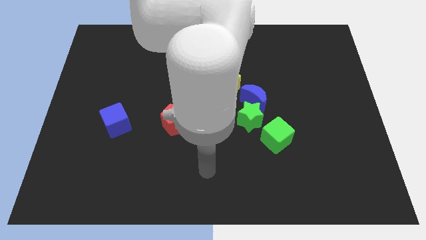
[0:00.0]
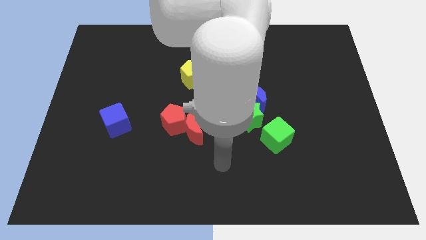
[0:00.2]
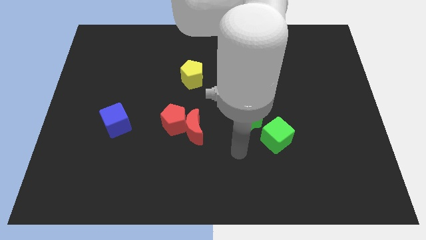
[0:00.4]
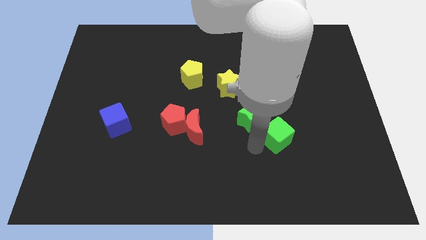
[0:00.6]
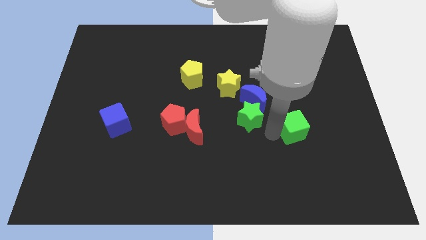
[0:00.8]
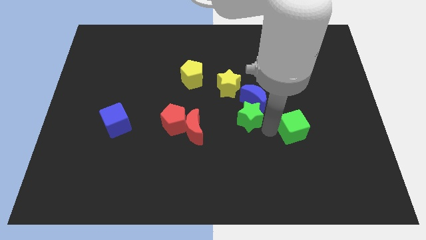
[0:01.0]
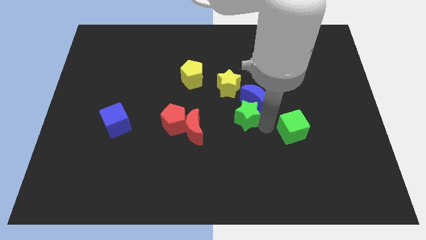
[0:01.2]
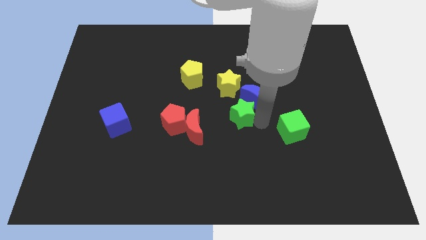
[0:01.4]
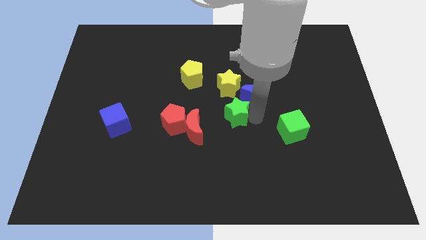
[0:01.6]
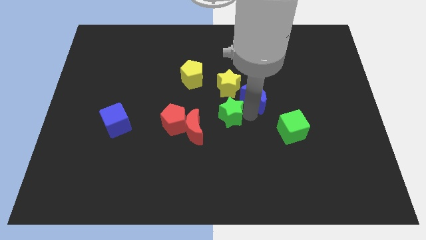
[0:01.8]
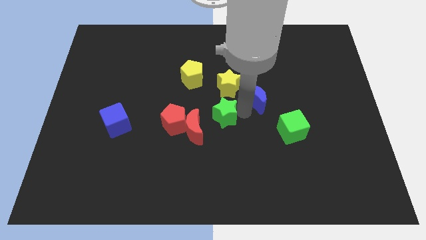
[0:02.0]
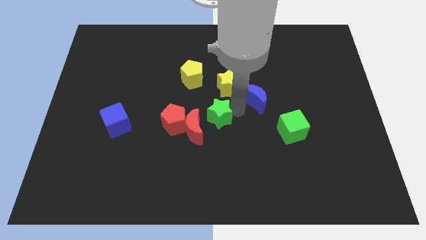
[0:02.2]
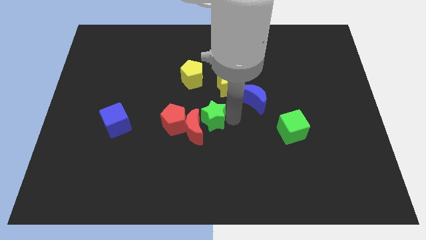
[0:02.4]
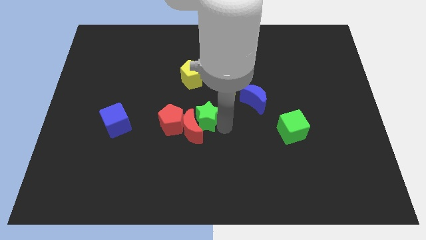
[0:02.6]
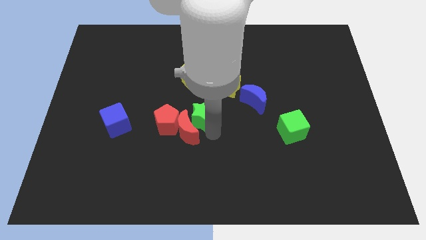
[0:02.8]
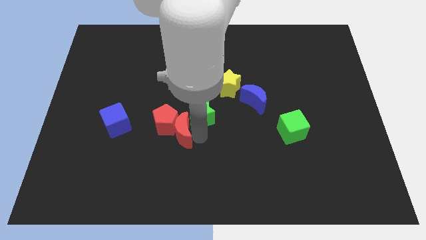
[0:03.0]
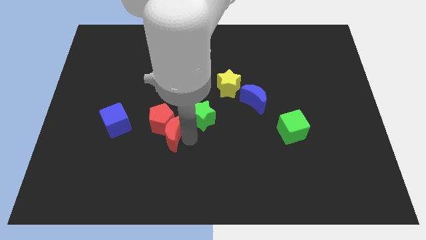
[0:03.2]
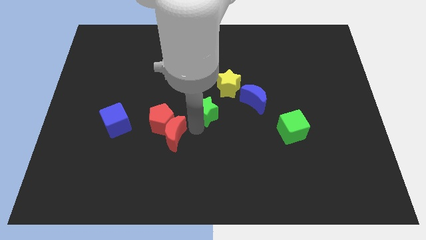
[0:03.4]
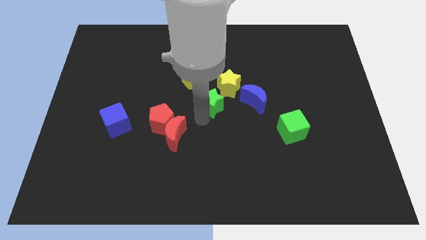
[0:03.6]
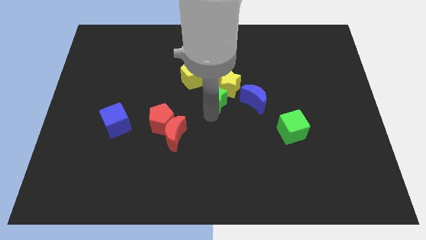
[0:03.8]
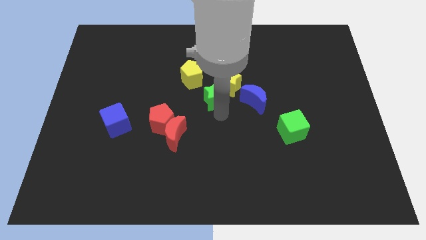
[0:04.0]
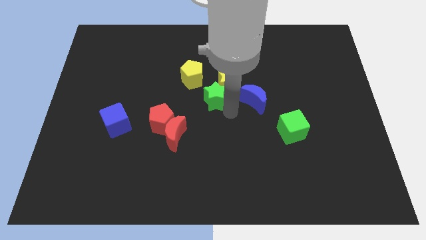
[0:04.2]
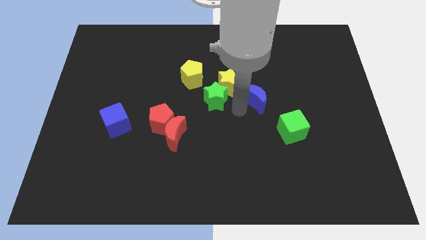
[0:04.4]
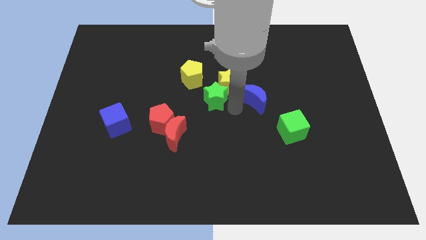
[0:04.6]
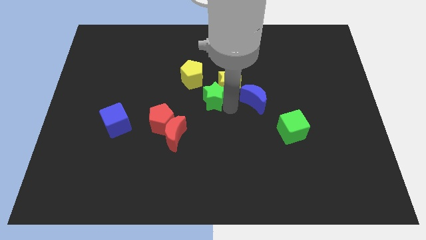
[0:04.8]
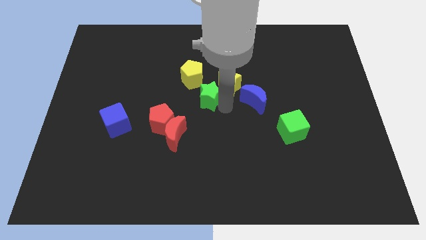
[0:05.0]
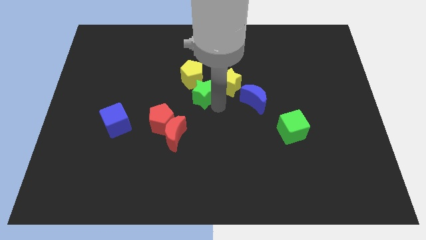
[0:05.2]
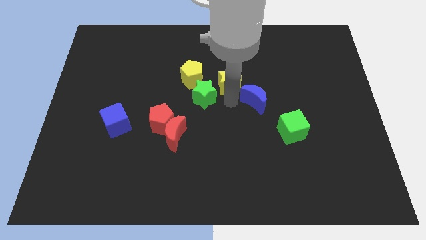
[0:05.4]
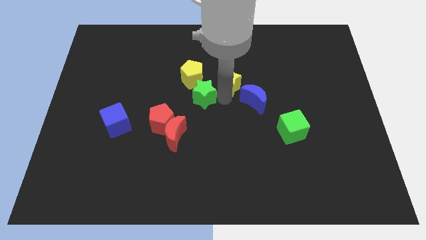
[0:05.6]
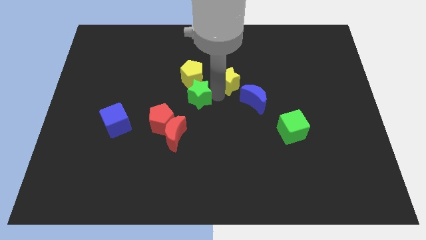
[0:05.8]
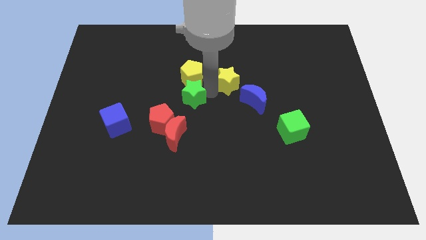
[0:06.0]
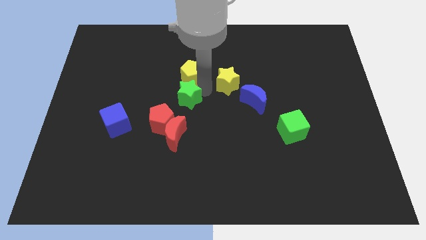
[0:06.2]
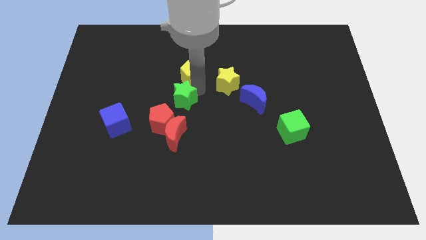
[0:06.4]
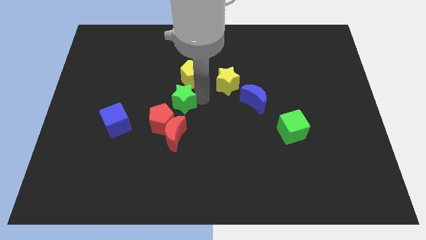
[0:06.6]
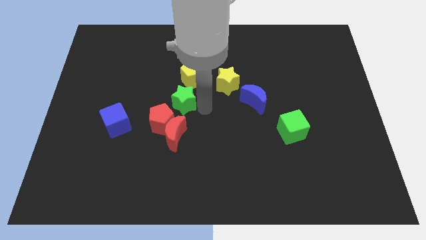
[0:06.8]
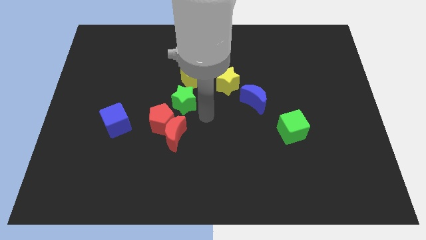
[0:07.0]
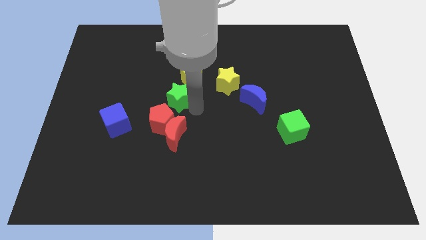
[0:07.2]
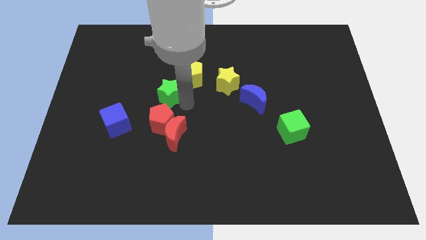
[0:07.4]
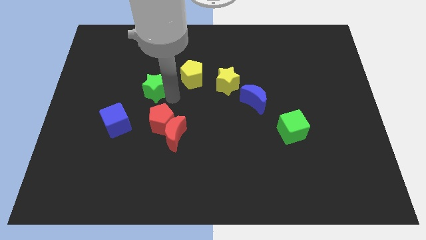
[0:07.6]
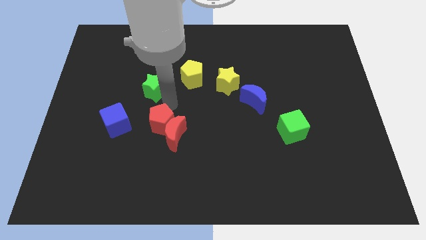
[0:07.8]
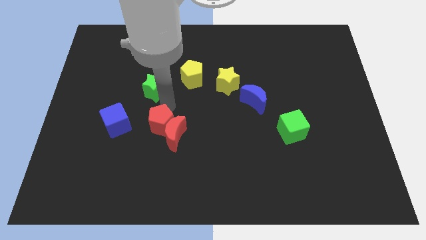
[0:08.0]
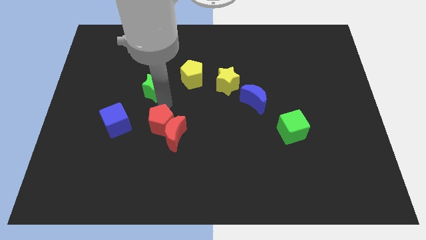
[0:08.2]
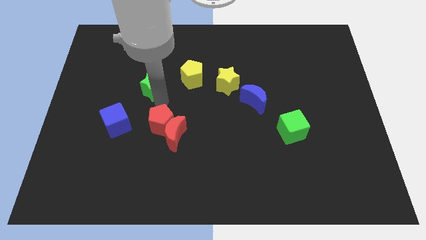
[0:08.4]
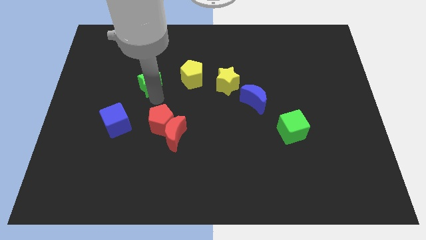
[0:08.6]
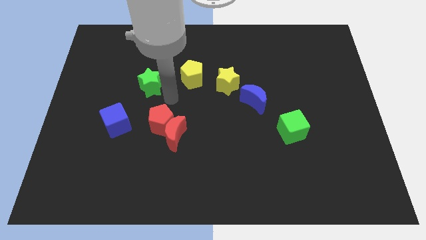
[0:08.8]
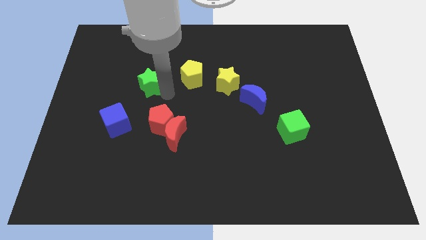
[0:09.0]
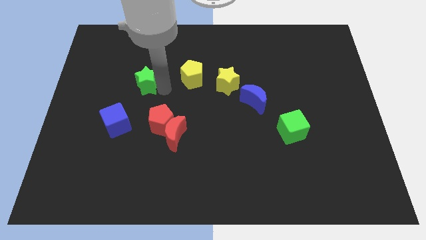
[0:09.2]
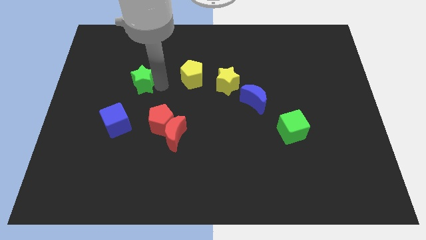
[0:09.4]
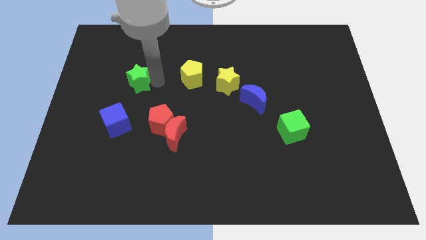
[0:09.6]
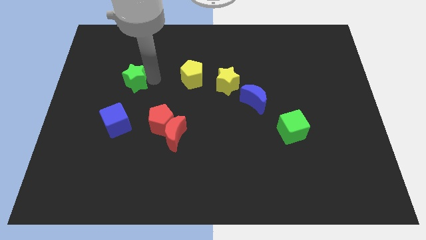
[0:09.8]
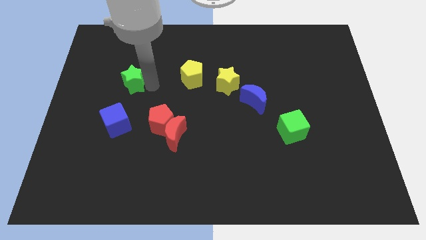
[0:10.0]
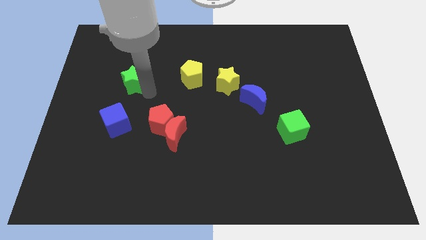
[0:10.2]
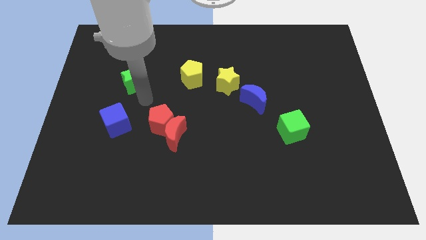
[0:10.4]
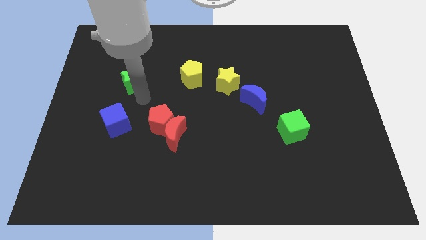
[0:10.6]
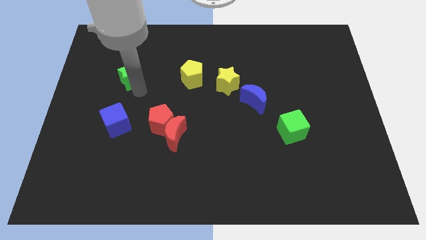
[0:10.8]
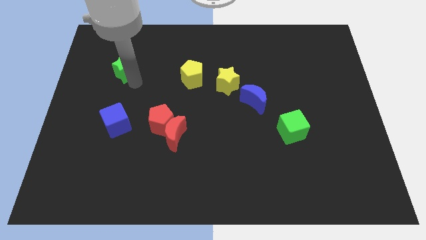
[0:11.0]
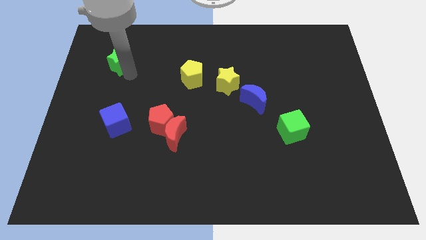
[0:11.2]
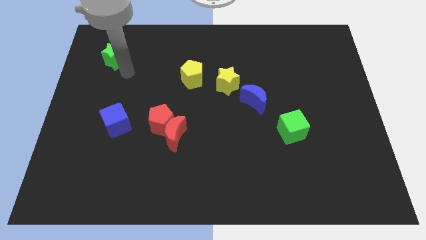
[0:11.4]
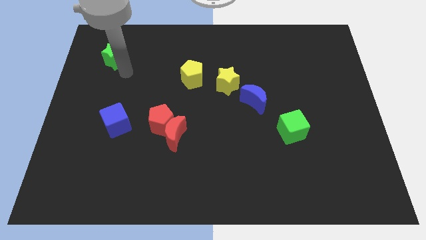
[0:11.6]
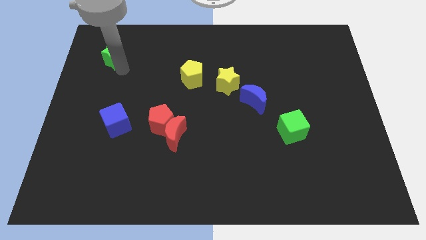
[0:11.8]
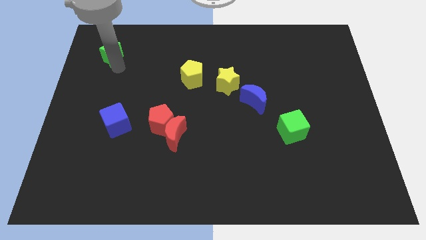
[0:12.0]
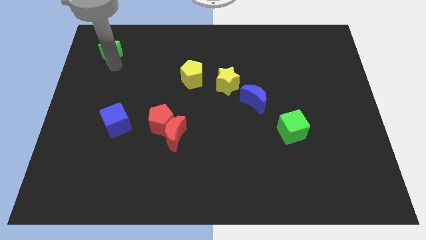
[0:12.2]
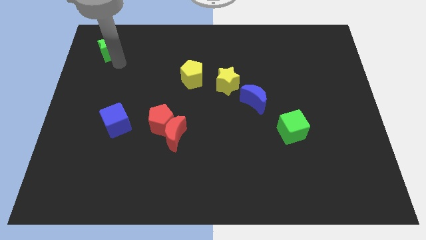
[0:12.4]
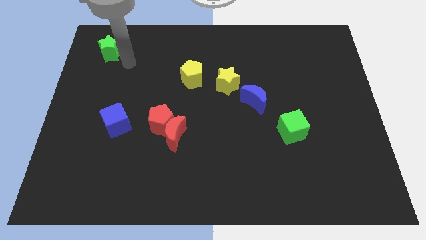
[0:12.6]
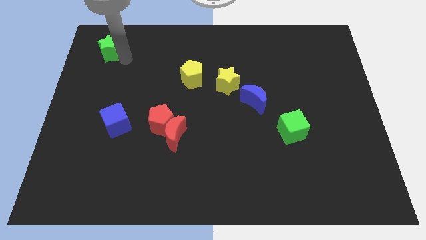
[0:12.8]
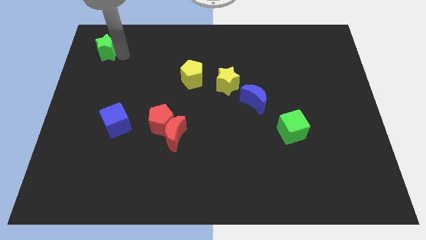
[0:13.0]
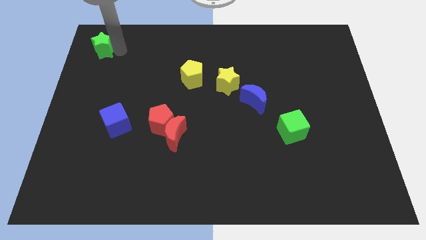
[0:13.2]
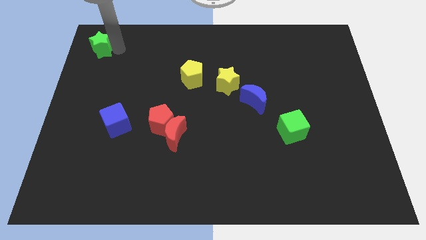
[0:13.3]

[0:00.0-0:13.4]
slide the green star to the top left
